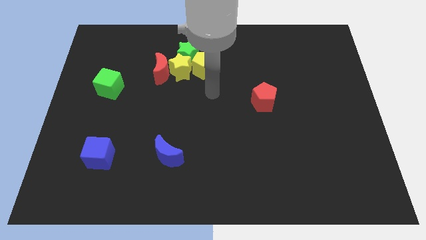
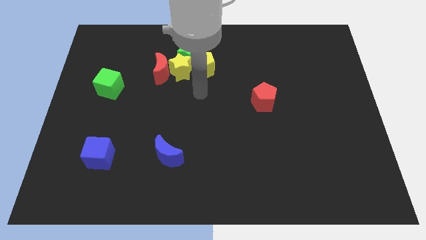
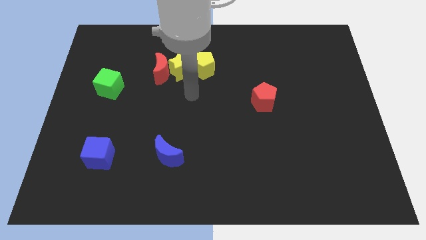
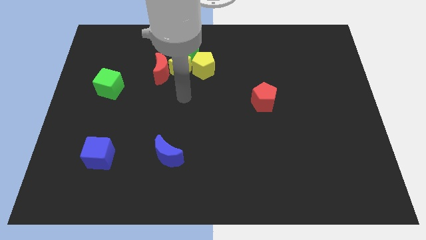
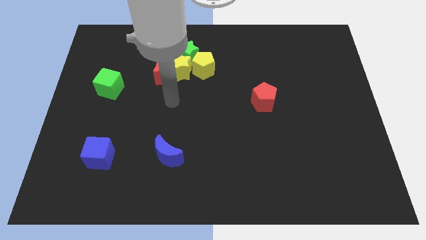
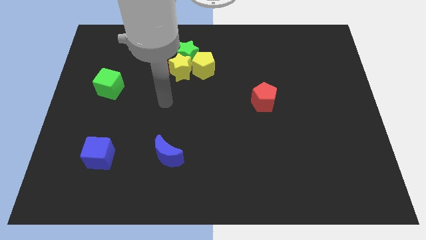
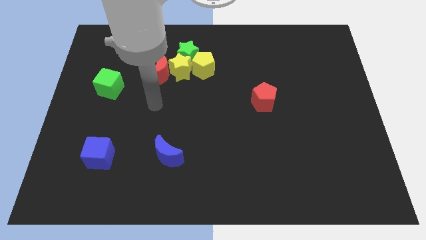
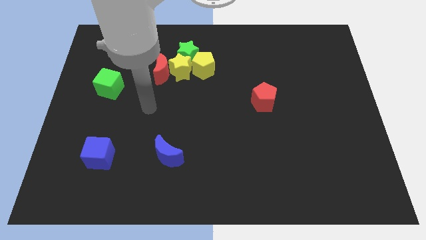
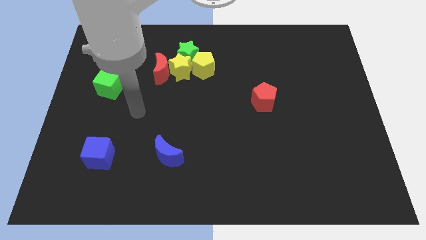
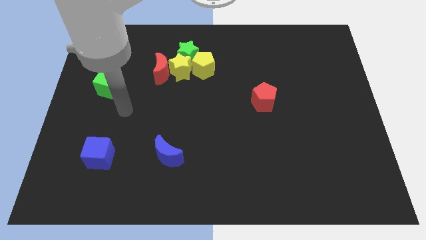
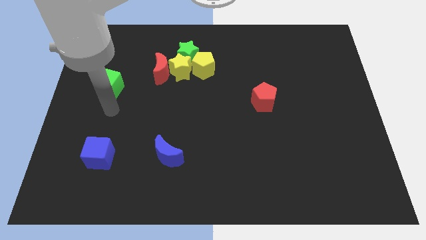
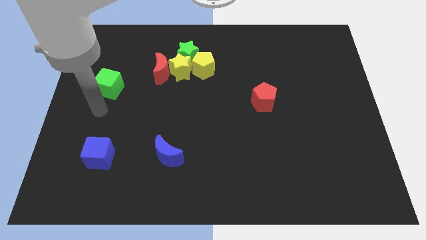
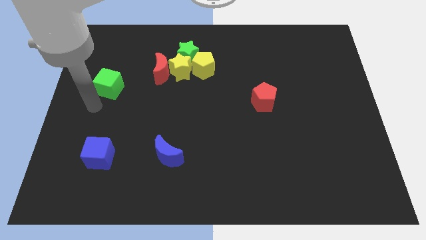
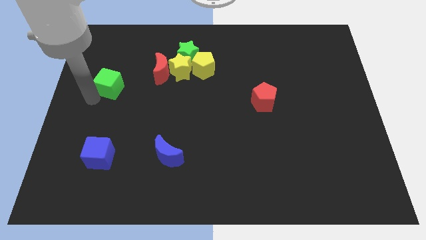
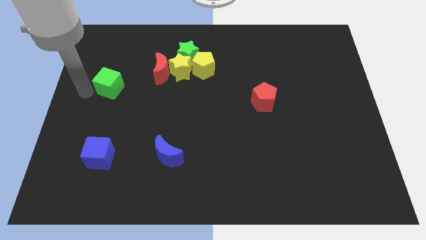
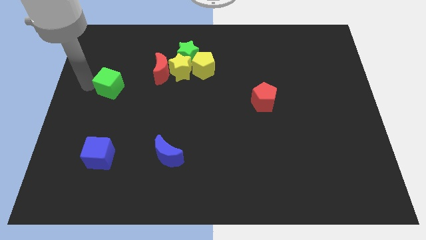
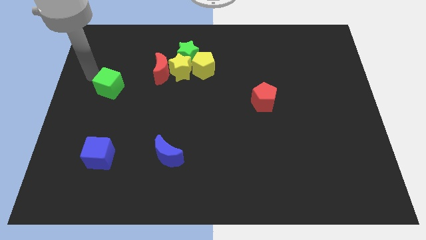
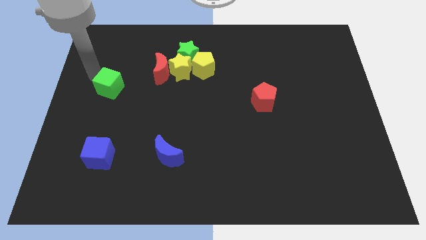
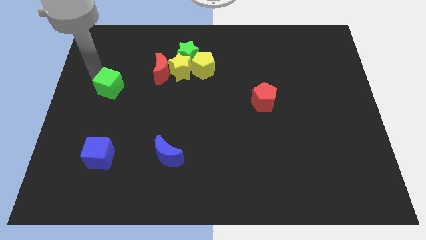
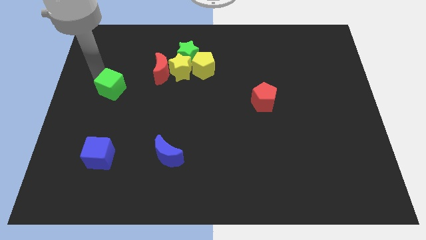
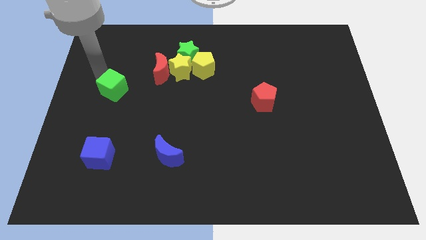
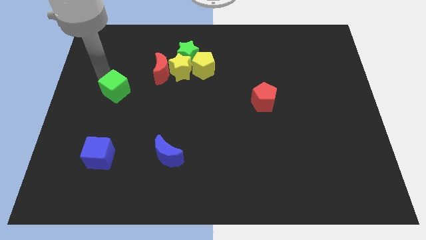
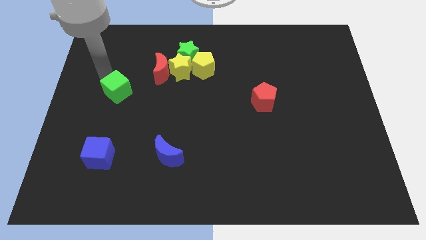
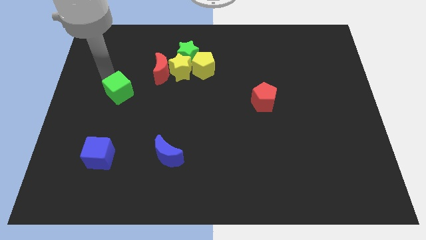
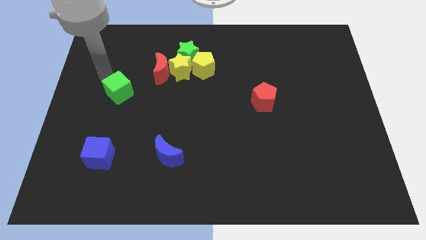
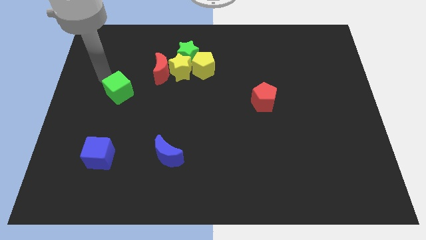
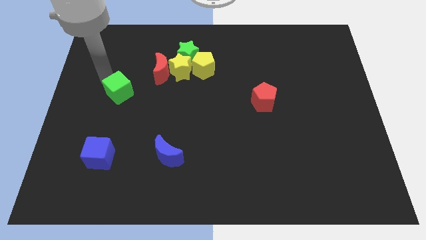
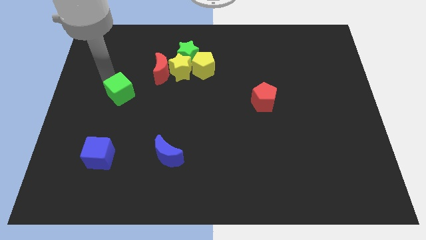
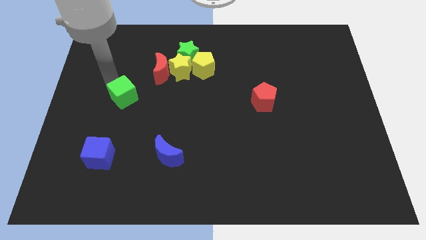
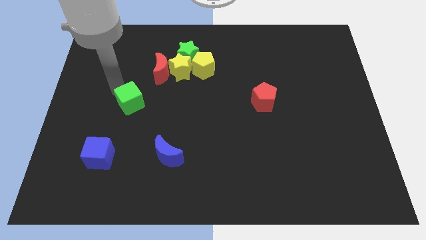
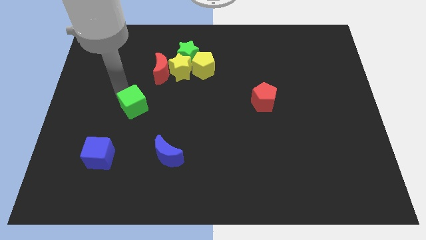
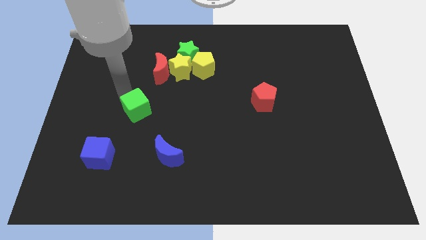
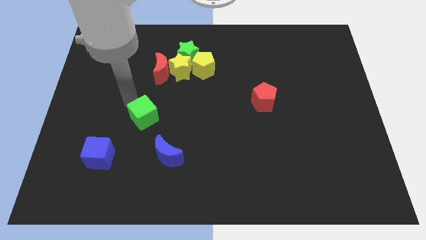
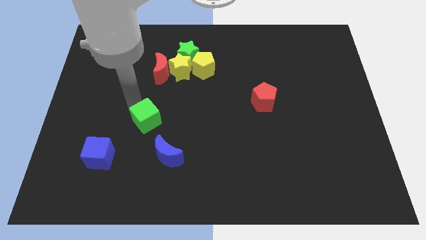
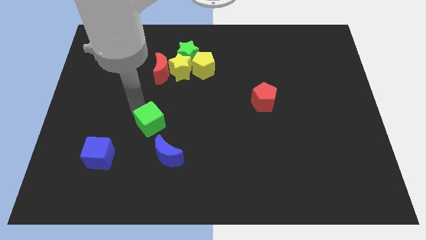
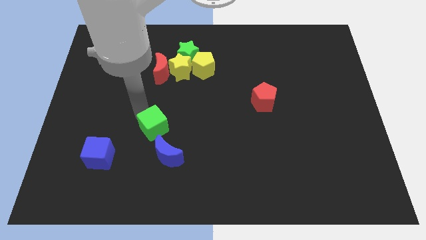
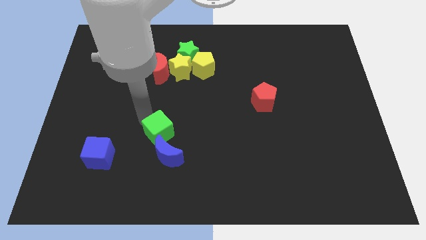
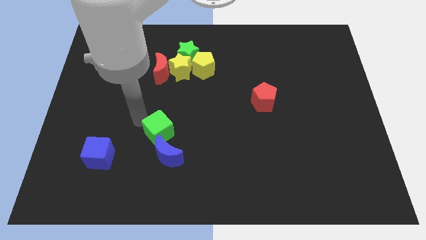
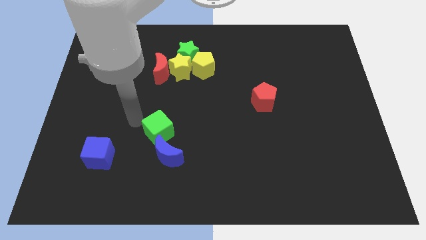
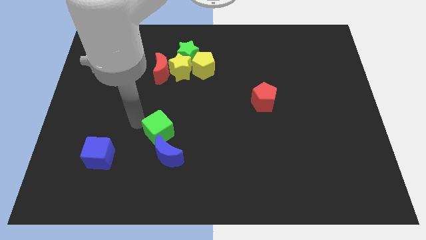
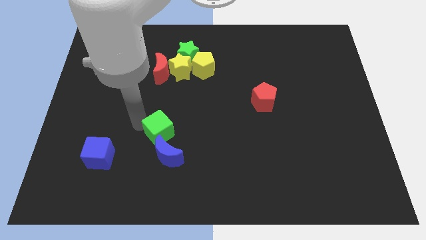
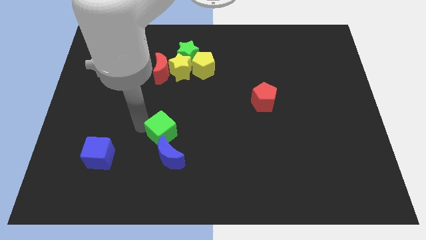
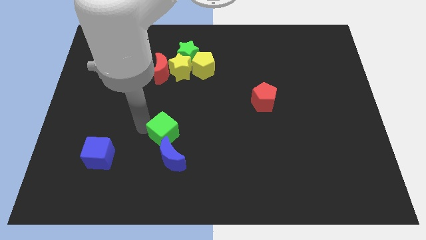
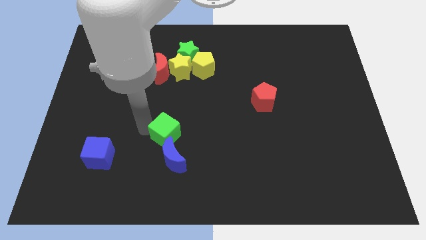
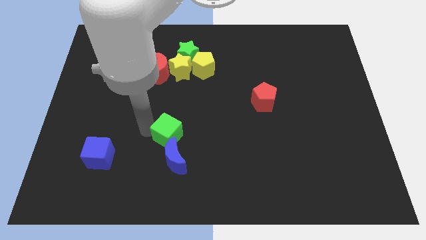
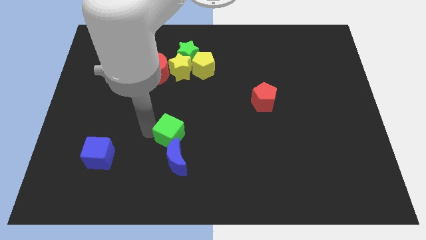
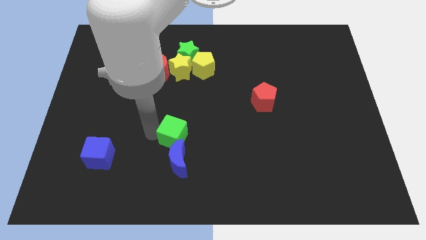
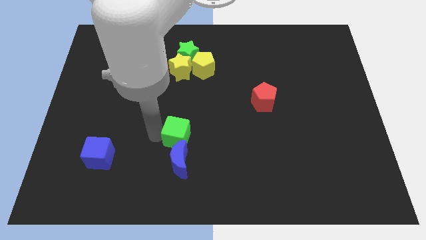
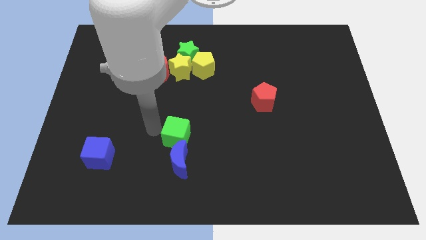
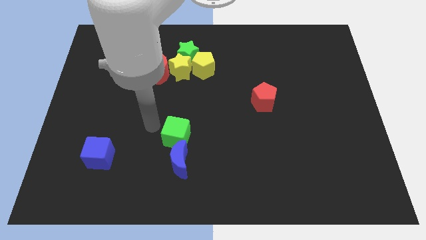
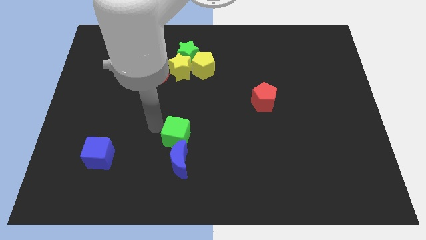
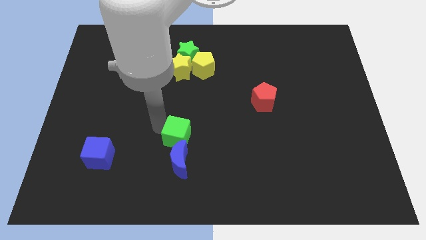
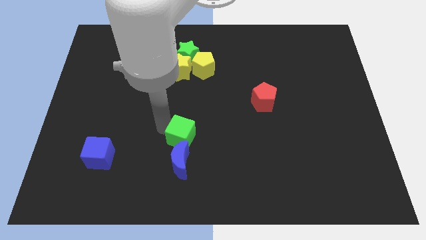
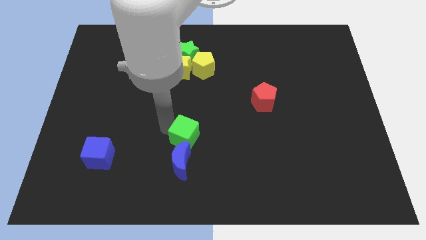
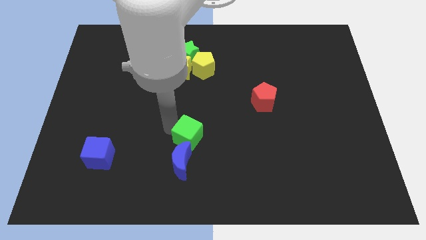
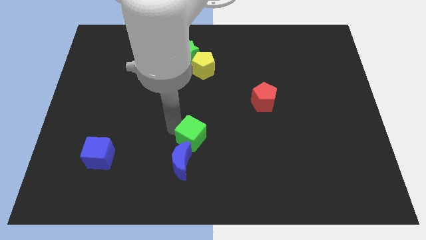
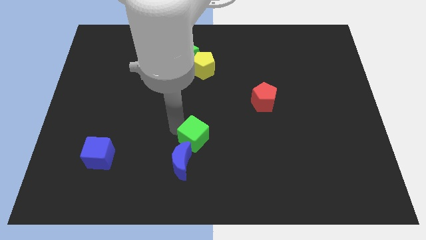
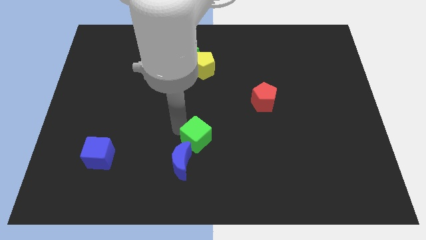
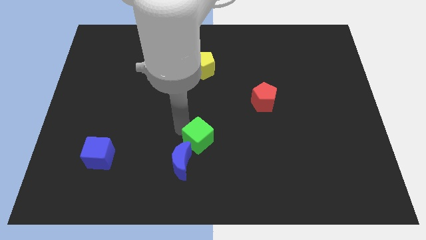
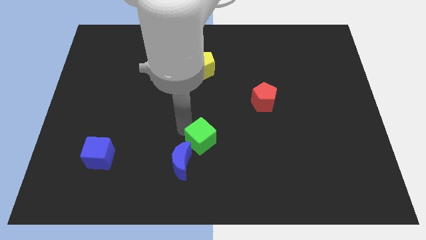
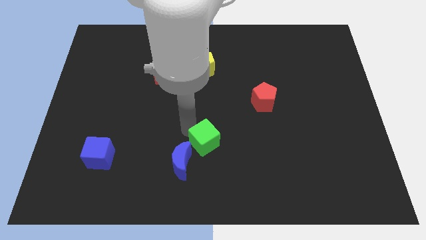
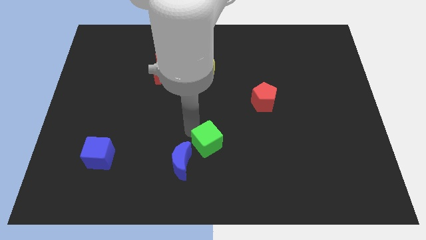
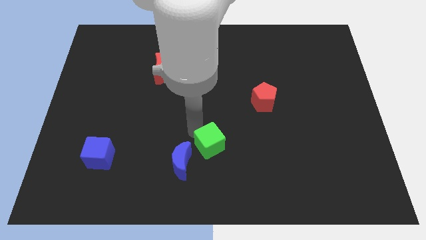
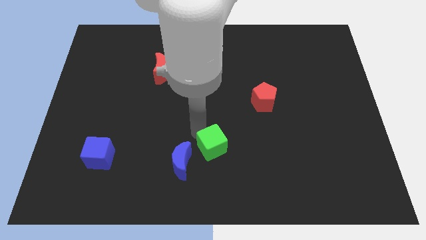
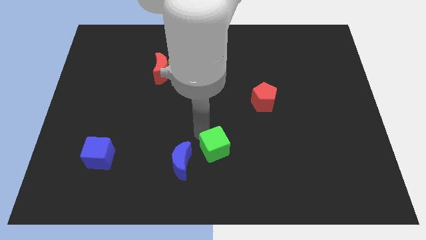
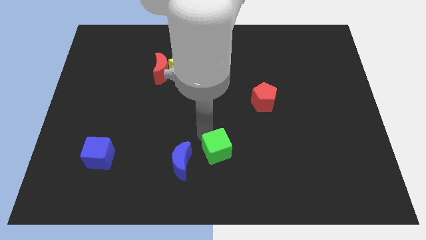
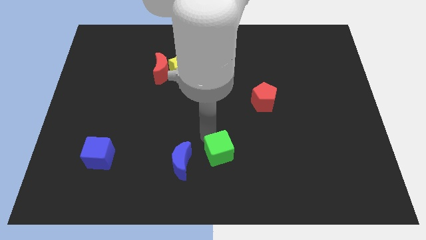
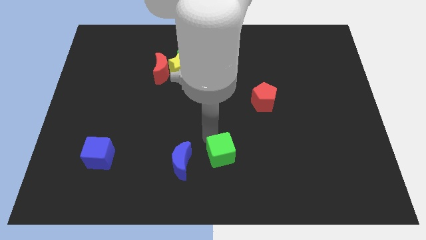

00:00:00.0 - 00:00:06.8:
slide the green cube to the bottom
